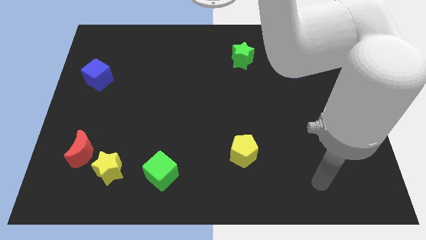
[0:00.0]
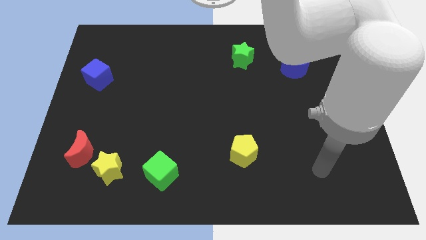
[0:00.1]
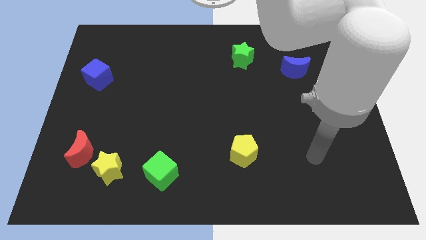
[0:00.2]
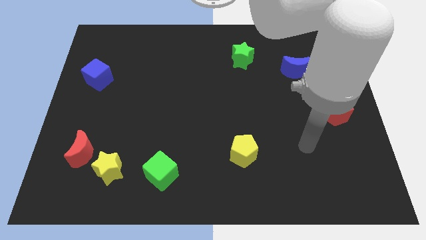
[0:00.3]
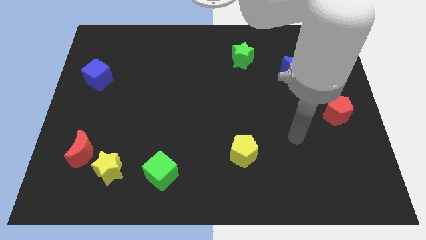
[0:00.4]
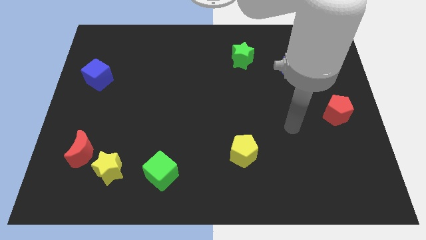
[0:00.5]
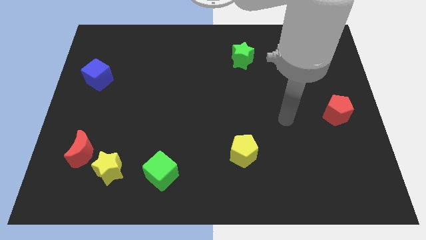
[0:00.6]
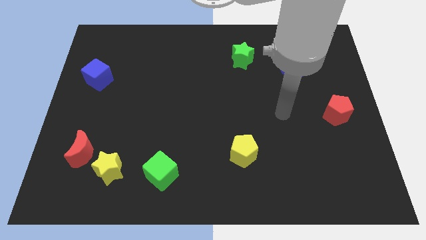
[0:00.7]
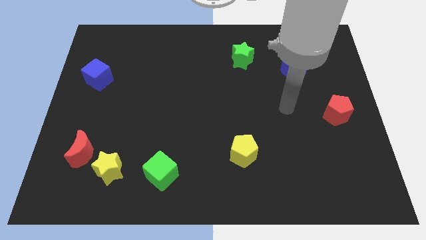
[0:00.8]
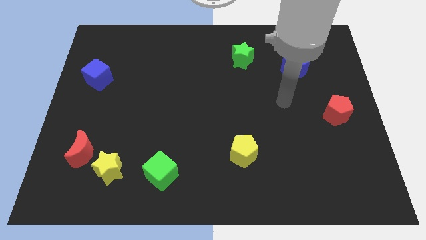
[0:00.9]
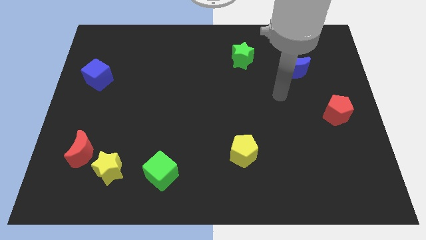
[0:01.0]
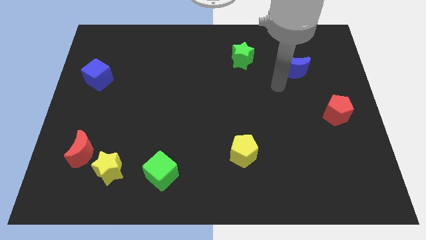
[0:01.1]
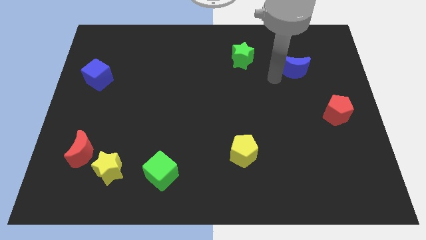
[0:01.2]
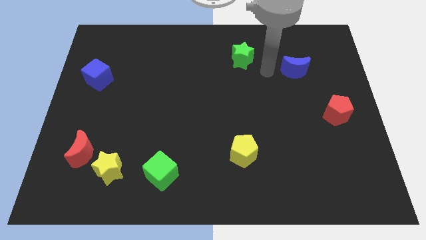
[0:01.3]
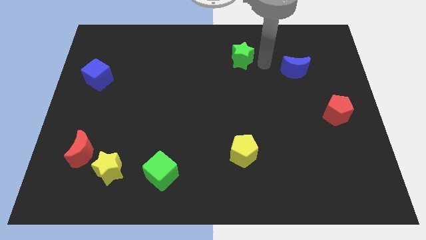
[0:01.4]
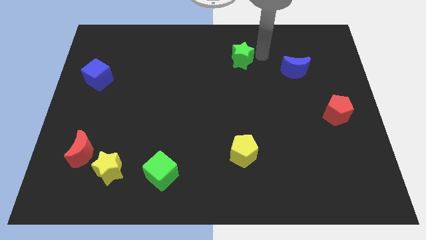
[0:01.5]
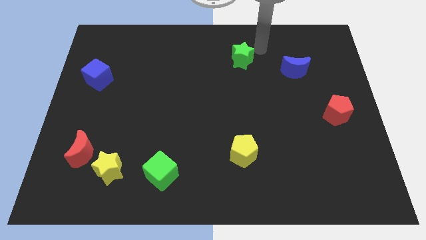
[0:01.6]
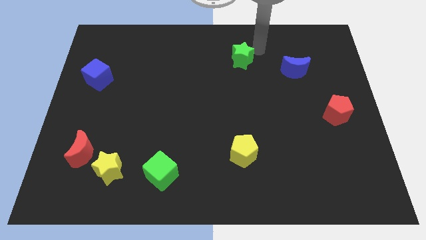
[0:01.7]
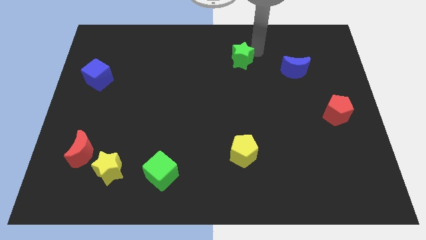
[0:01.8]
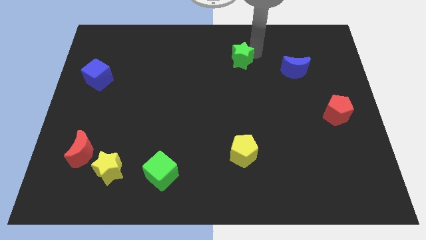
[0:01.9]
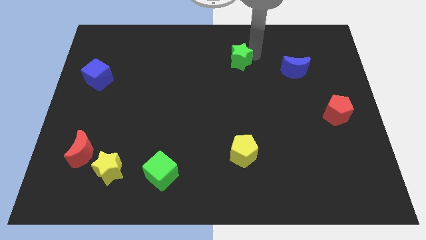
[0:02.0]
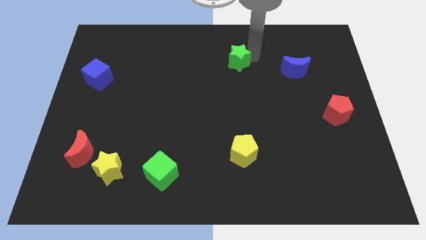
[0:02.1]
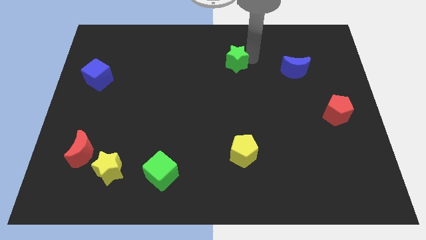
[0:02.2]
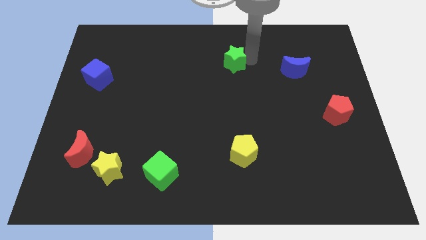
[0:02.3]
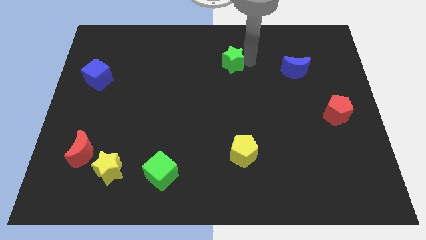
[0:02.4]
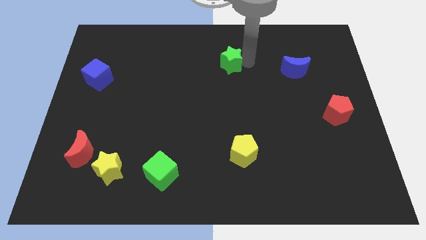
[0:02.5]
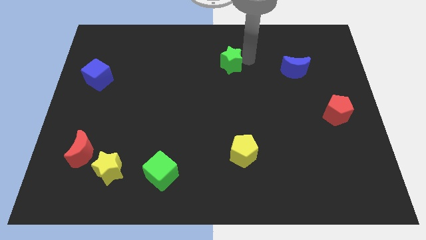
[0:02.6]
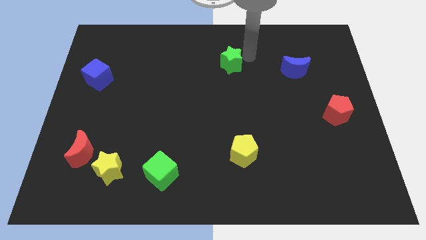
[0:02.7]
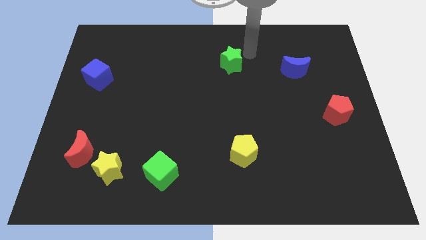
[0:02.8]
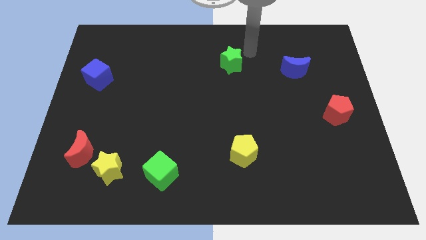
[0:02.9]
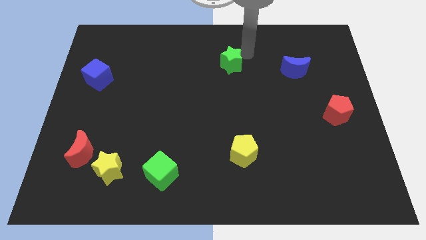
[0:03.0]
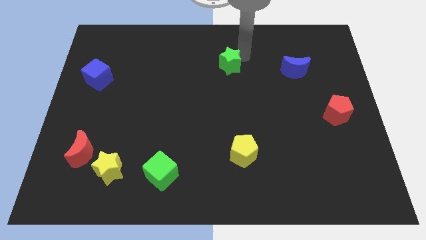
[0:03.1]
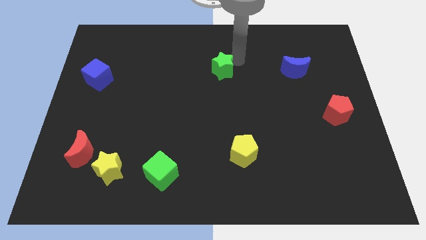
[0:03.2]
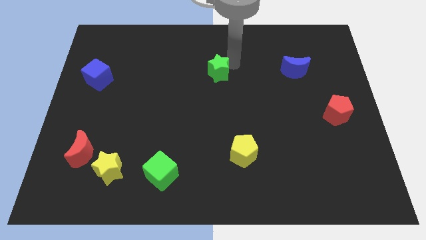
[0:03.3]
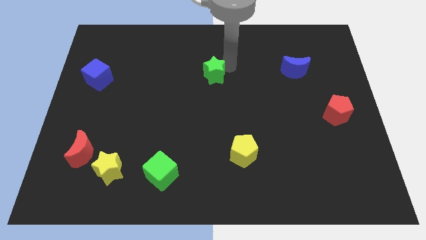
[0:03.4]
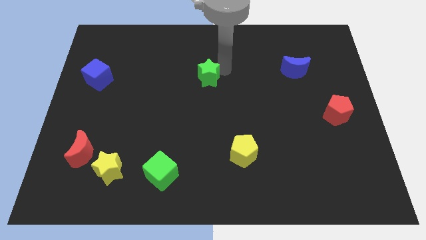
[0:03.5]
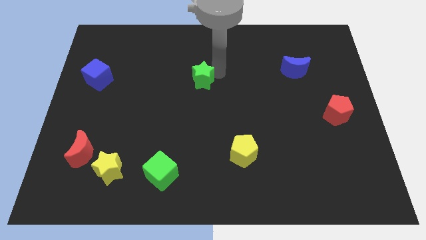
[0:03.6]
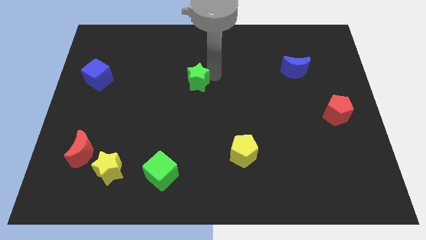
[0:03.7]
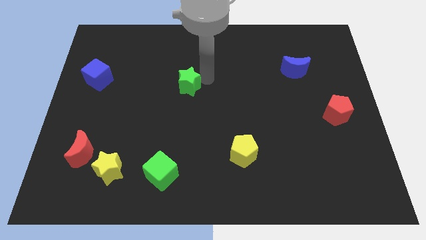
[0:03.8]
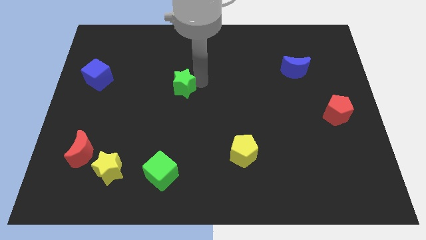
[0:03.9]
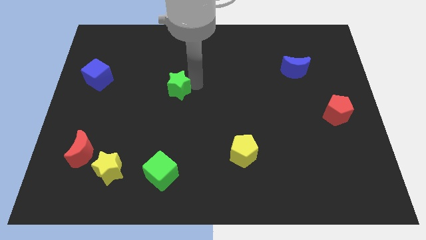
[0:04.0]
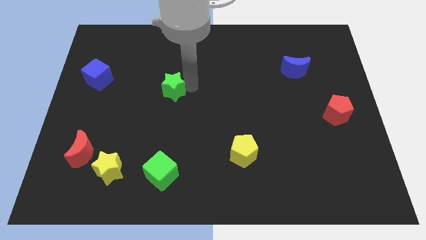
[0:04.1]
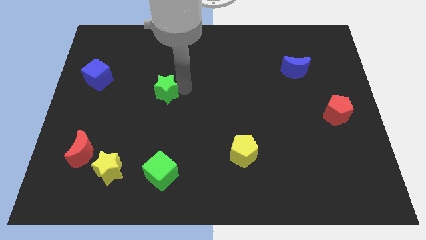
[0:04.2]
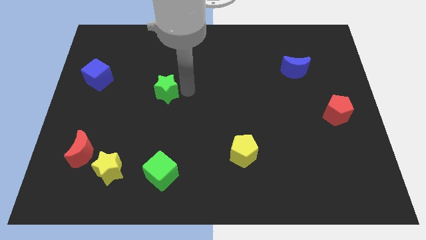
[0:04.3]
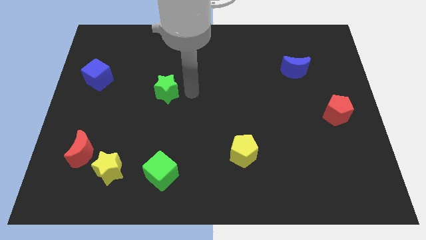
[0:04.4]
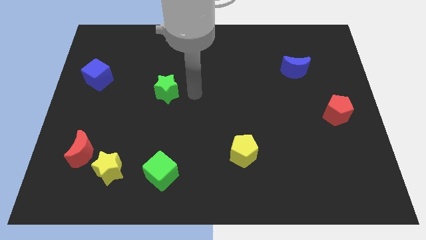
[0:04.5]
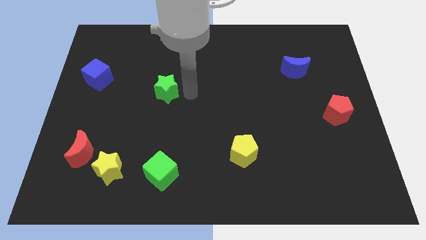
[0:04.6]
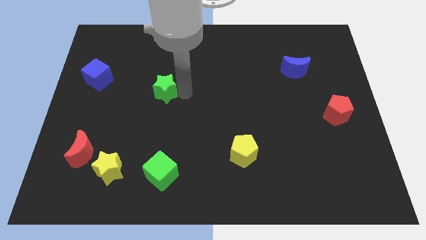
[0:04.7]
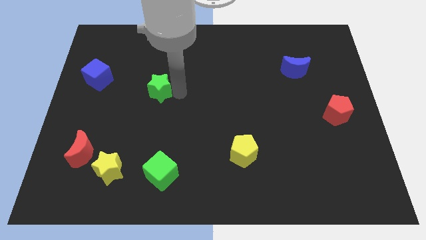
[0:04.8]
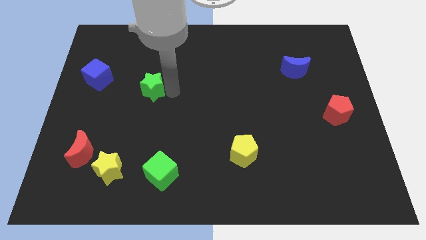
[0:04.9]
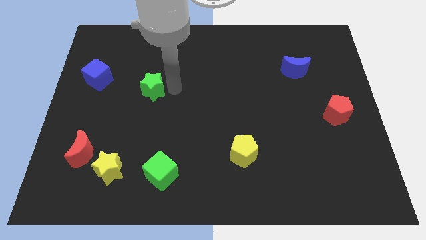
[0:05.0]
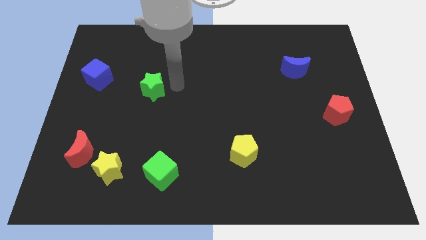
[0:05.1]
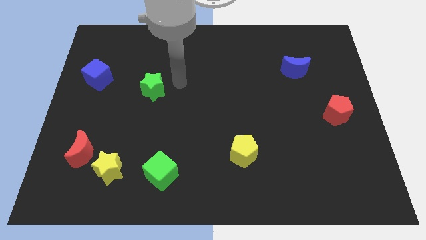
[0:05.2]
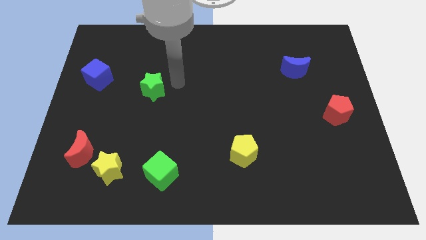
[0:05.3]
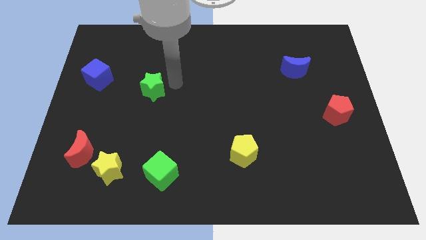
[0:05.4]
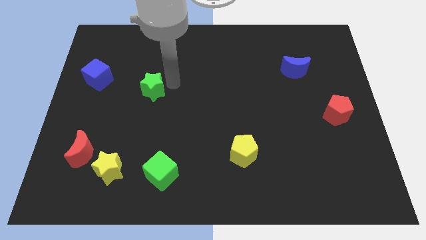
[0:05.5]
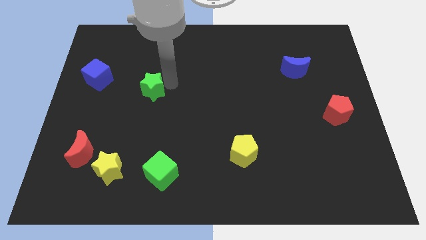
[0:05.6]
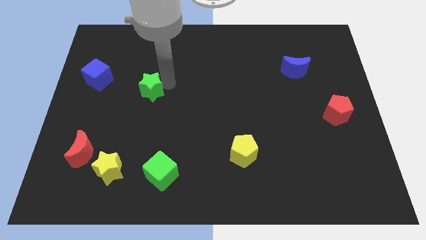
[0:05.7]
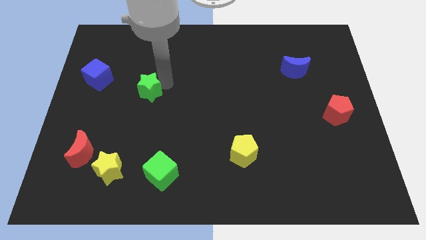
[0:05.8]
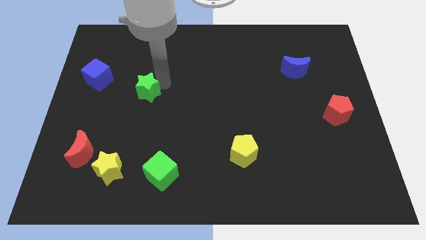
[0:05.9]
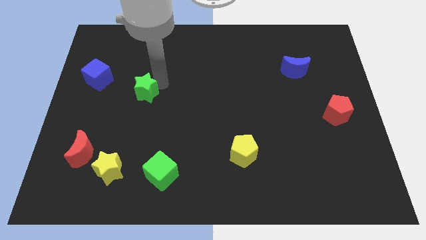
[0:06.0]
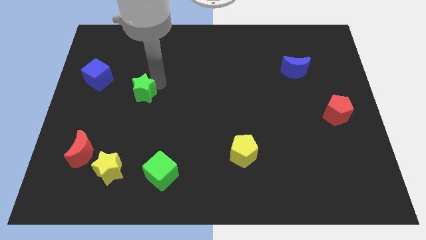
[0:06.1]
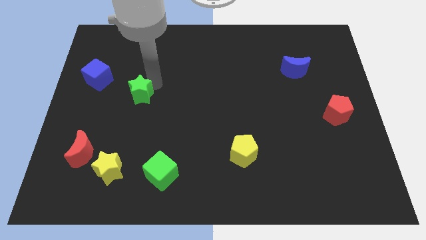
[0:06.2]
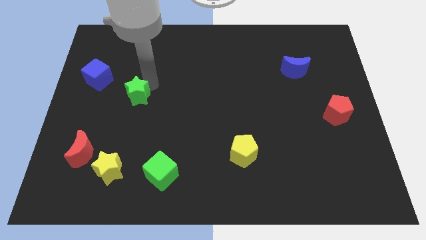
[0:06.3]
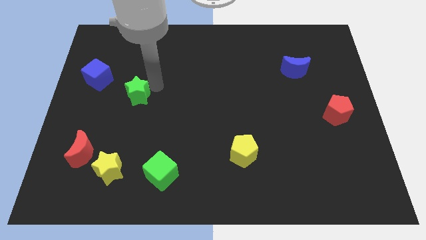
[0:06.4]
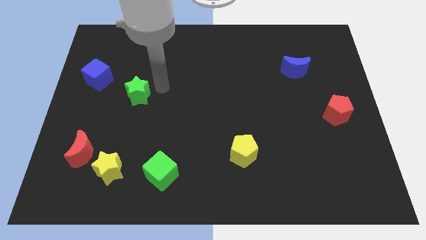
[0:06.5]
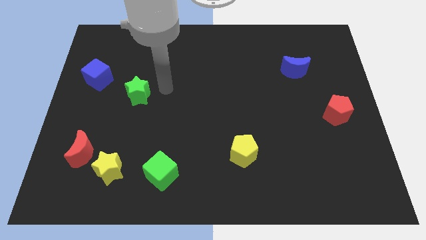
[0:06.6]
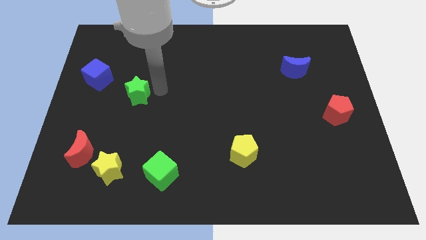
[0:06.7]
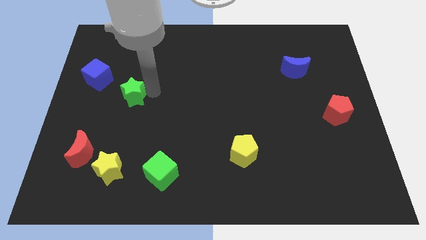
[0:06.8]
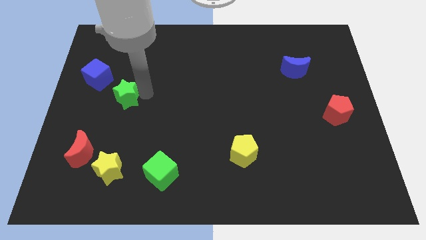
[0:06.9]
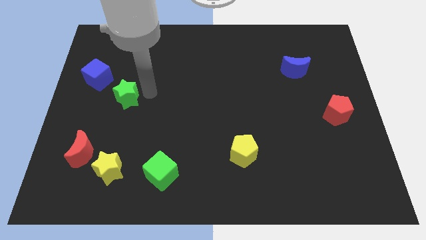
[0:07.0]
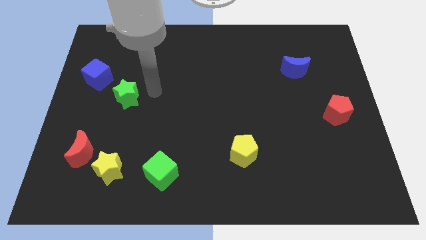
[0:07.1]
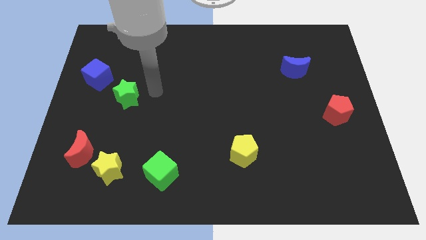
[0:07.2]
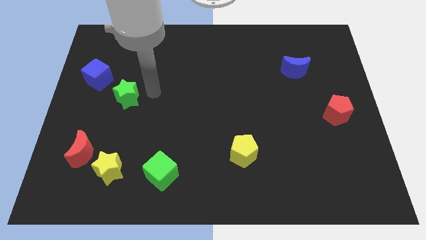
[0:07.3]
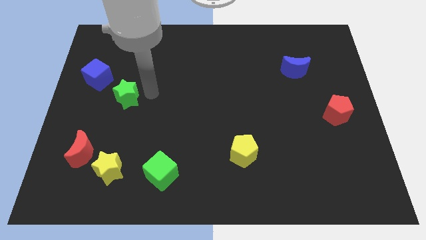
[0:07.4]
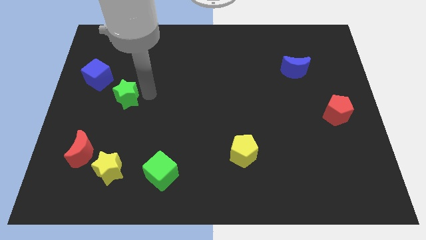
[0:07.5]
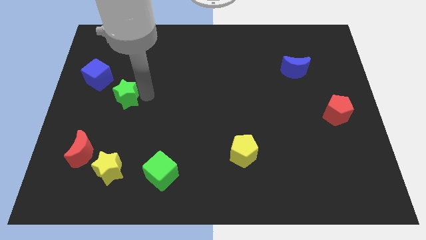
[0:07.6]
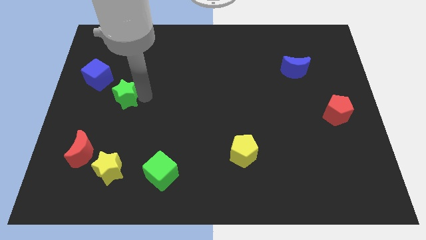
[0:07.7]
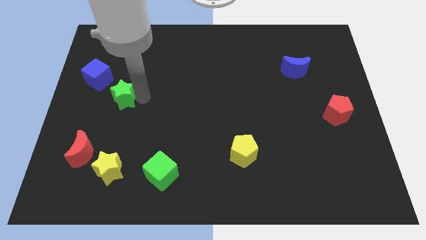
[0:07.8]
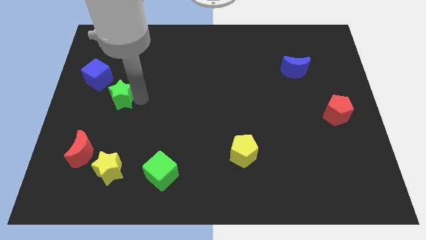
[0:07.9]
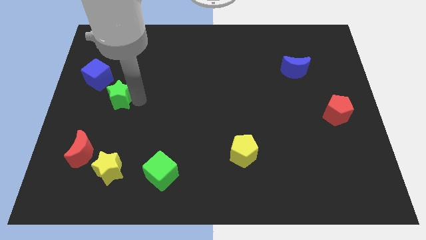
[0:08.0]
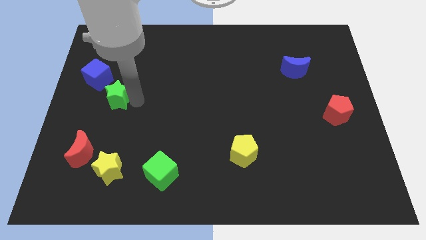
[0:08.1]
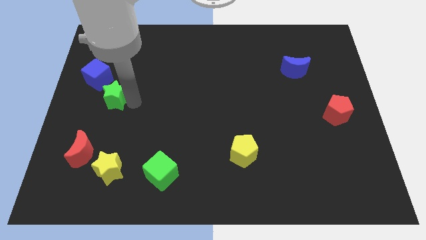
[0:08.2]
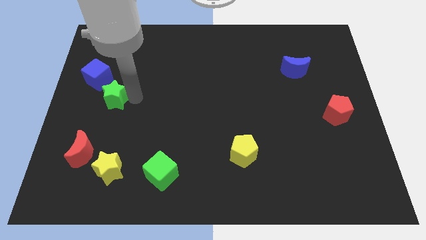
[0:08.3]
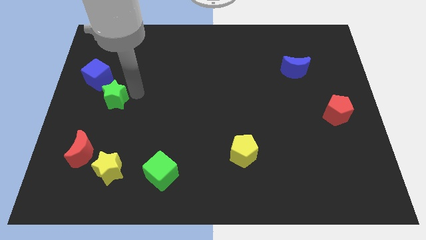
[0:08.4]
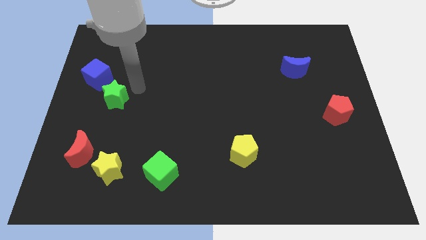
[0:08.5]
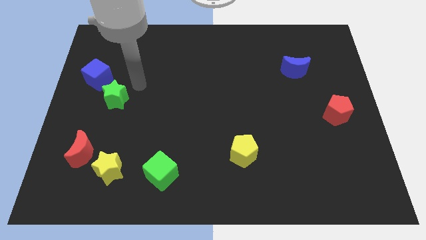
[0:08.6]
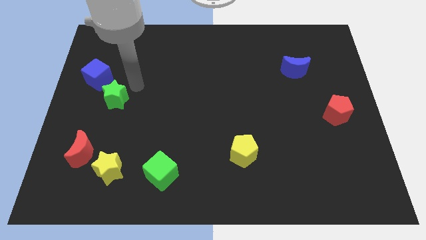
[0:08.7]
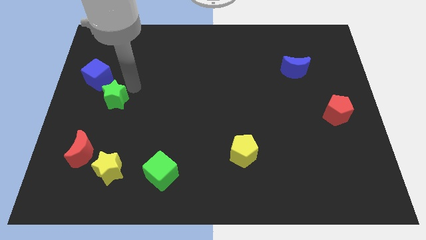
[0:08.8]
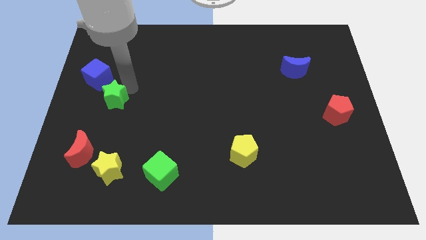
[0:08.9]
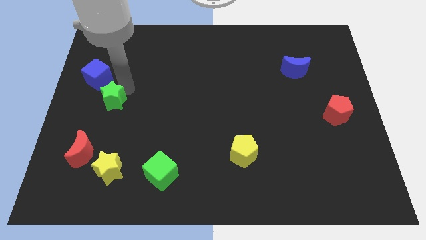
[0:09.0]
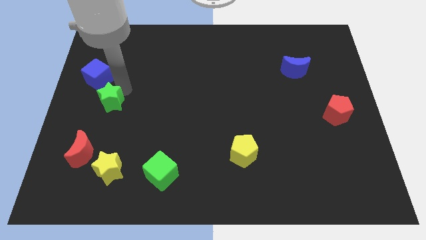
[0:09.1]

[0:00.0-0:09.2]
put the green star to the top of the red moon
